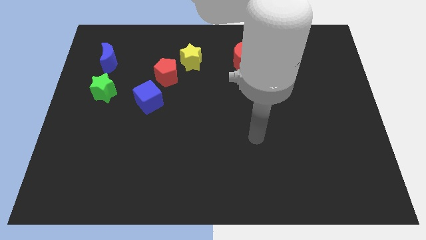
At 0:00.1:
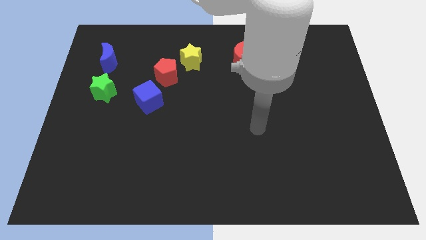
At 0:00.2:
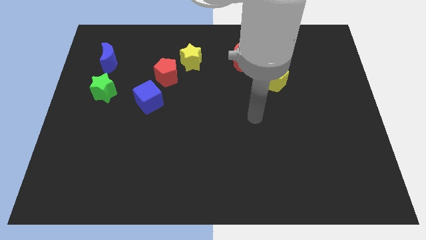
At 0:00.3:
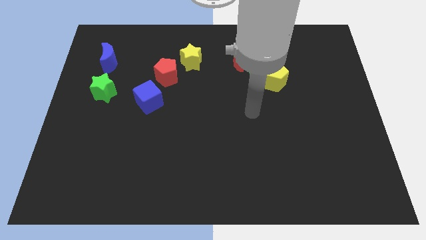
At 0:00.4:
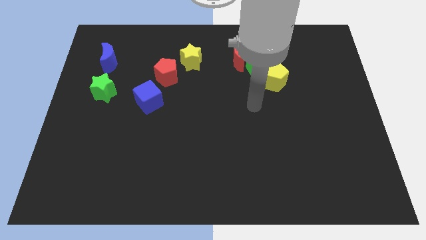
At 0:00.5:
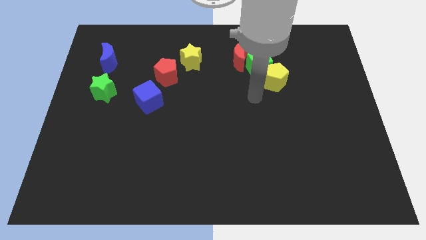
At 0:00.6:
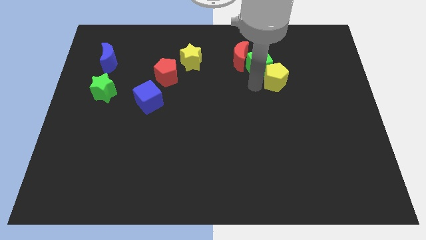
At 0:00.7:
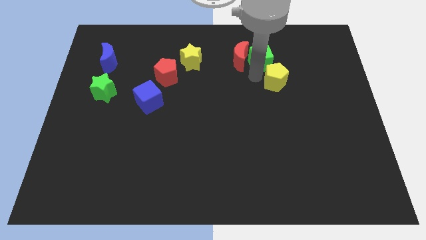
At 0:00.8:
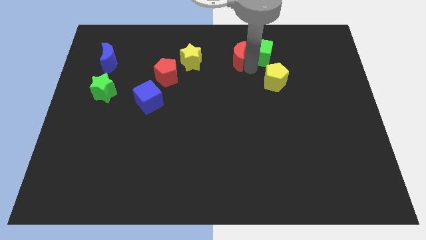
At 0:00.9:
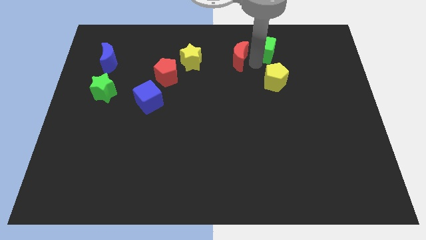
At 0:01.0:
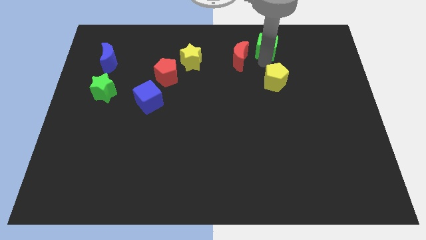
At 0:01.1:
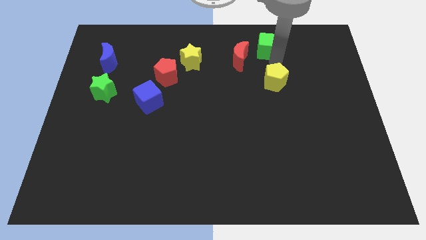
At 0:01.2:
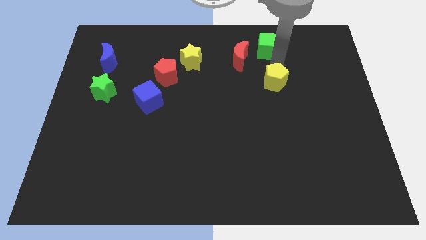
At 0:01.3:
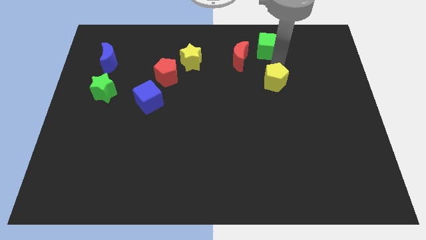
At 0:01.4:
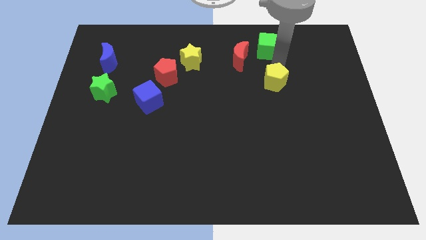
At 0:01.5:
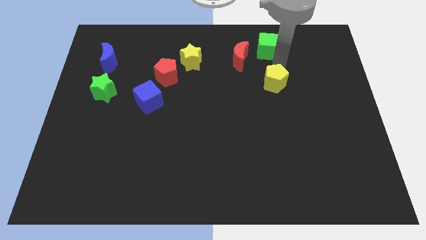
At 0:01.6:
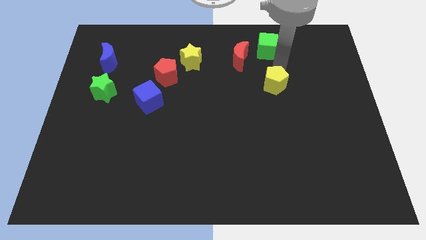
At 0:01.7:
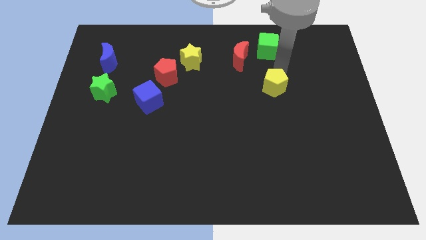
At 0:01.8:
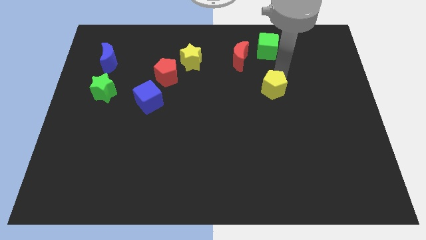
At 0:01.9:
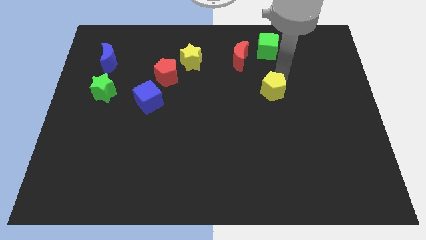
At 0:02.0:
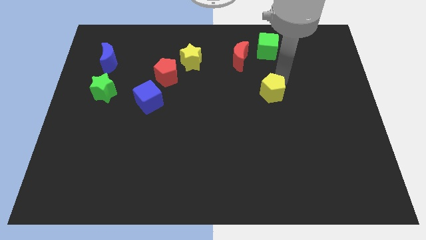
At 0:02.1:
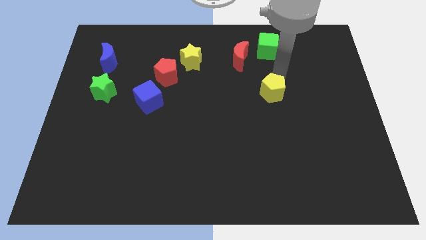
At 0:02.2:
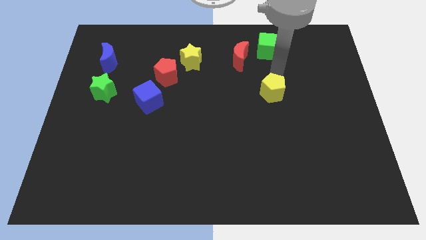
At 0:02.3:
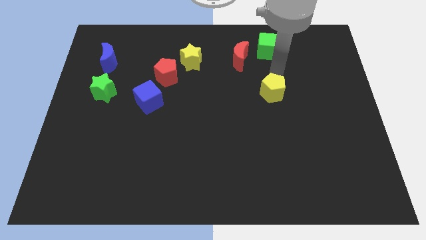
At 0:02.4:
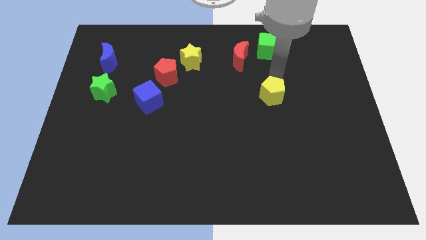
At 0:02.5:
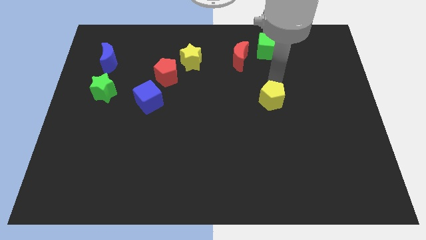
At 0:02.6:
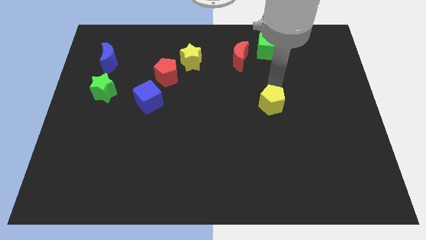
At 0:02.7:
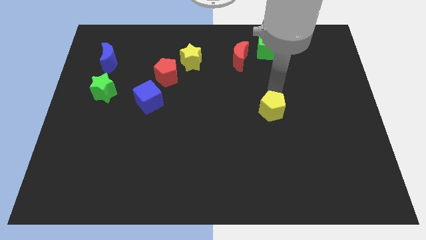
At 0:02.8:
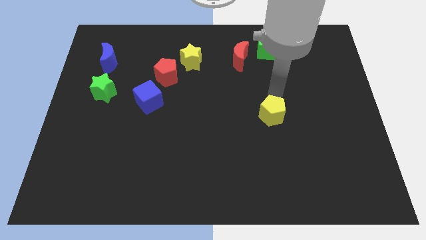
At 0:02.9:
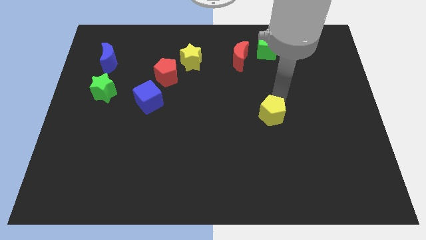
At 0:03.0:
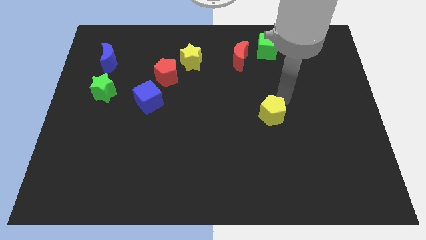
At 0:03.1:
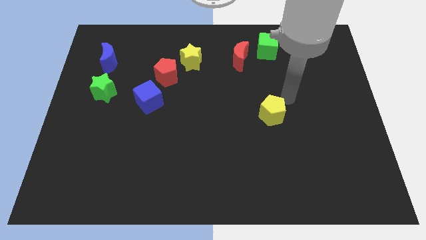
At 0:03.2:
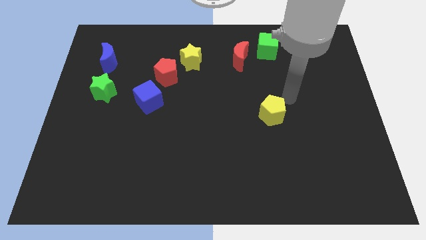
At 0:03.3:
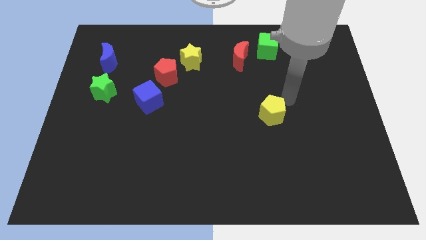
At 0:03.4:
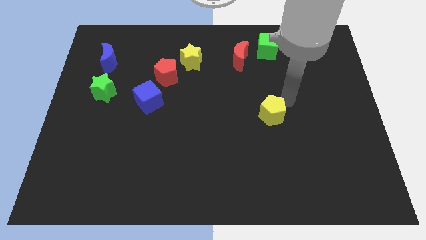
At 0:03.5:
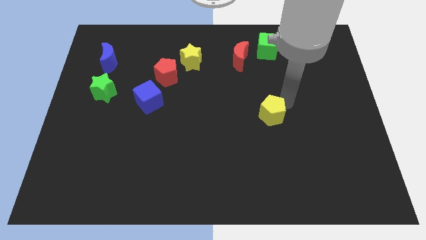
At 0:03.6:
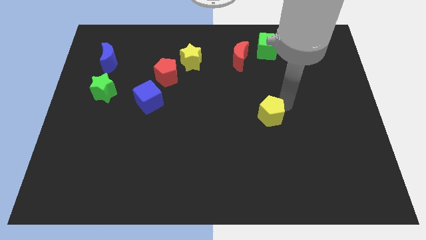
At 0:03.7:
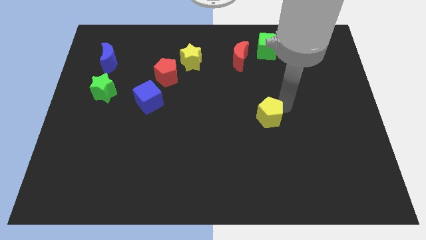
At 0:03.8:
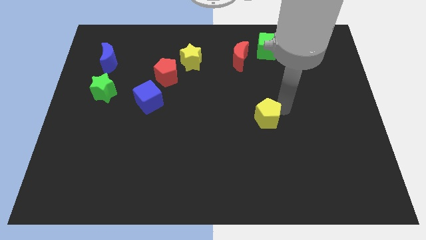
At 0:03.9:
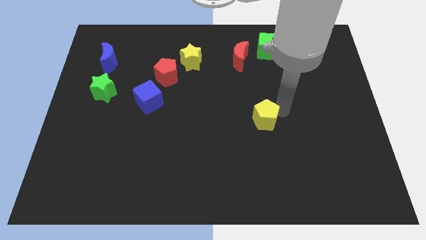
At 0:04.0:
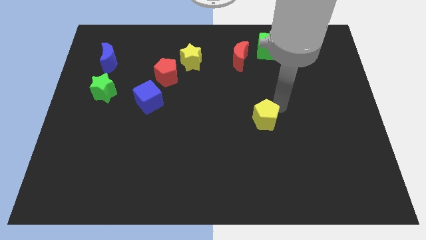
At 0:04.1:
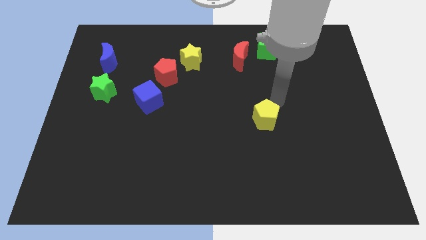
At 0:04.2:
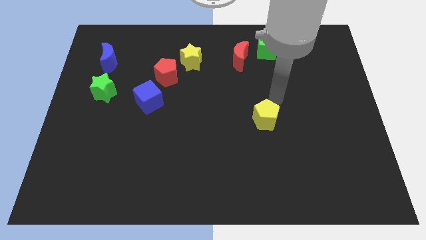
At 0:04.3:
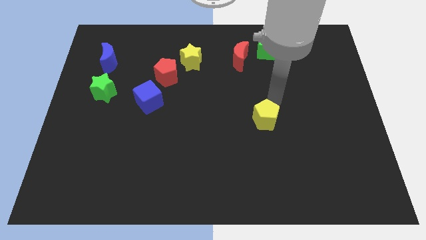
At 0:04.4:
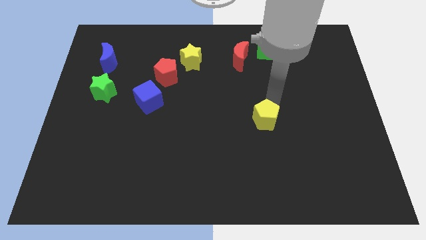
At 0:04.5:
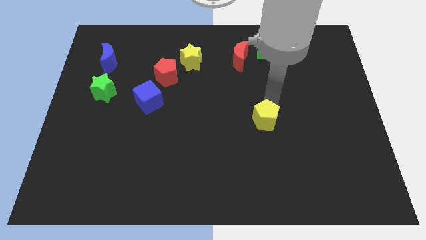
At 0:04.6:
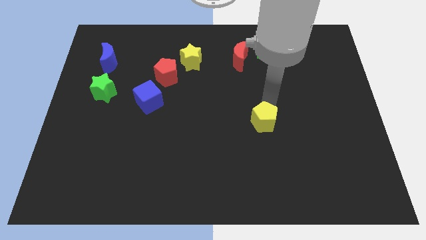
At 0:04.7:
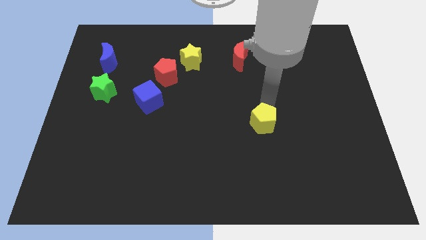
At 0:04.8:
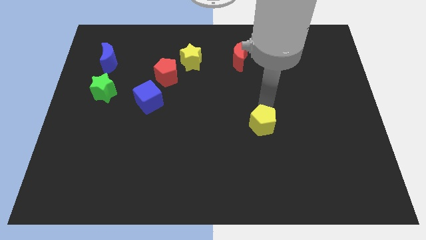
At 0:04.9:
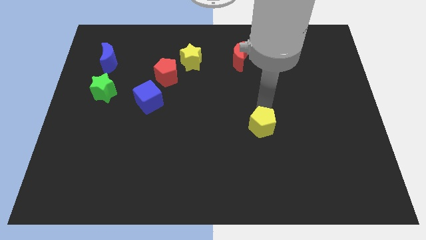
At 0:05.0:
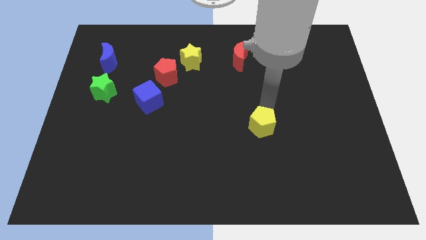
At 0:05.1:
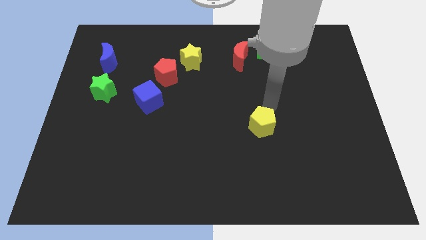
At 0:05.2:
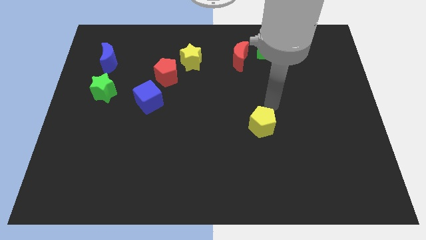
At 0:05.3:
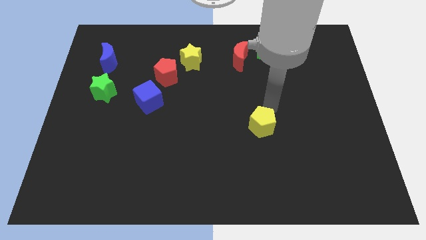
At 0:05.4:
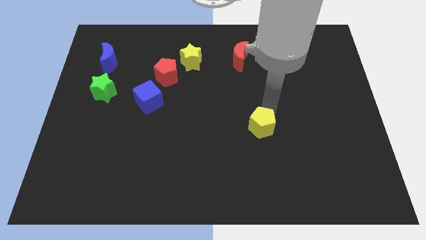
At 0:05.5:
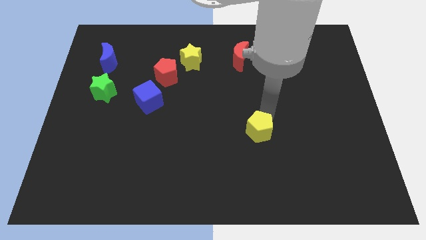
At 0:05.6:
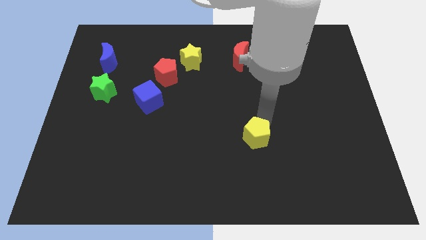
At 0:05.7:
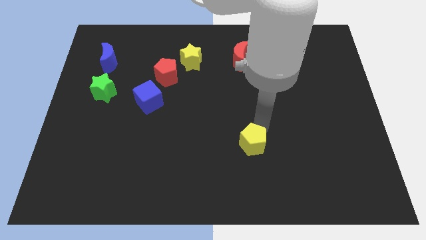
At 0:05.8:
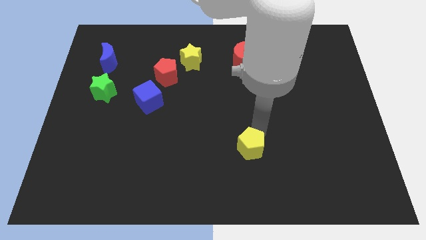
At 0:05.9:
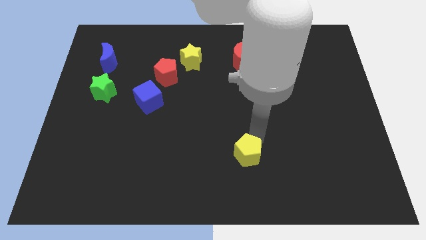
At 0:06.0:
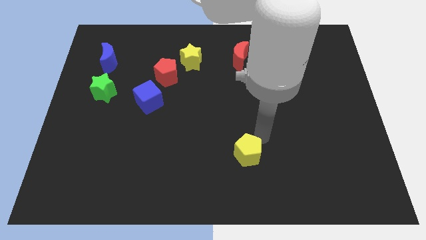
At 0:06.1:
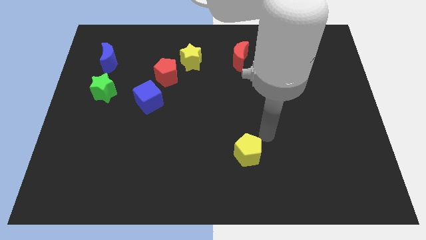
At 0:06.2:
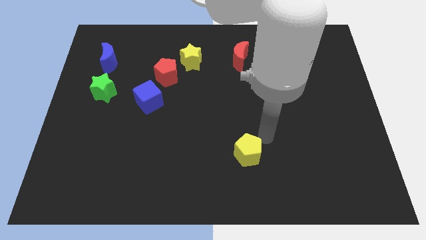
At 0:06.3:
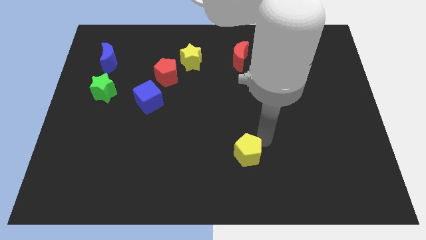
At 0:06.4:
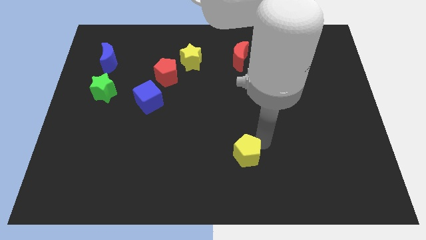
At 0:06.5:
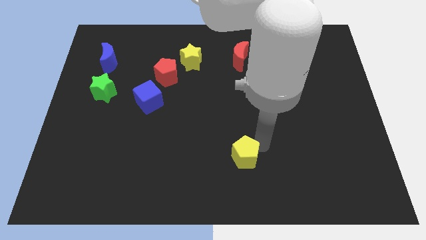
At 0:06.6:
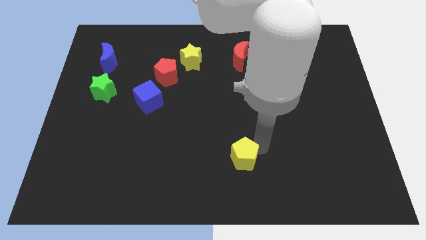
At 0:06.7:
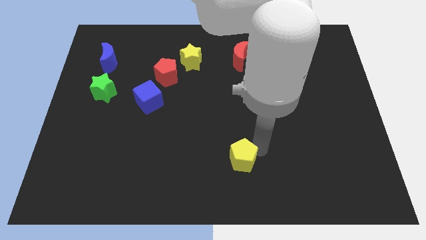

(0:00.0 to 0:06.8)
put the yellow pentagon to the bottom side

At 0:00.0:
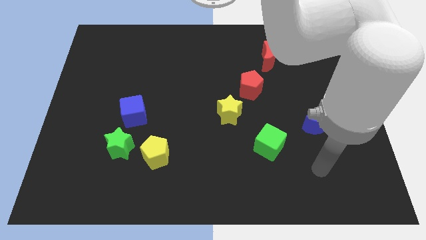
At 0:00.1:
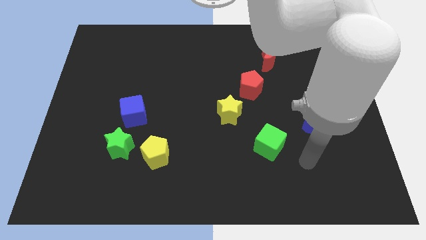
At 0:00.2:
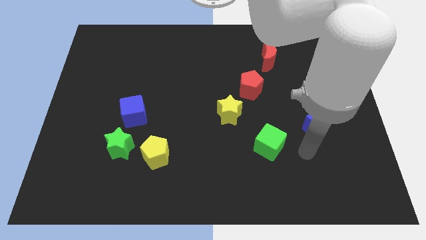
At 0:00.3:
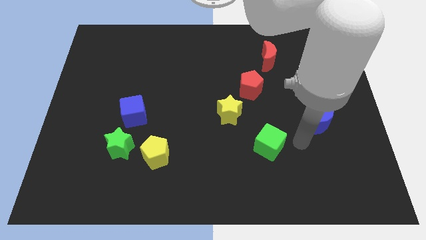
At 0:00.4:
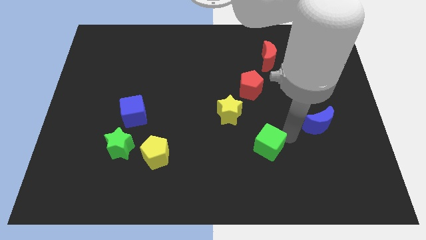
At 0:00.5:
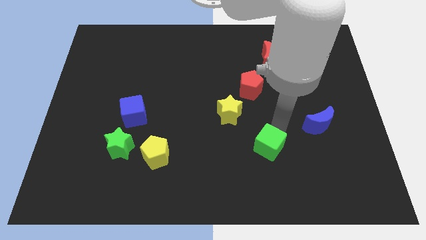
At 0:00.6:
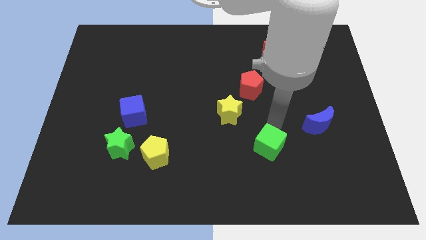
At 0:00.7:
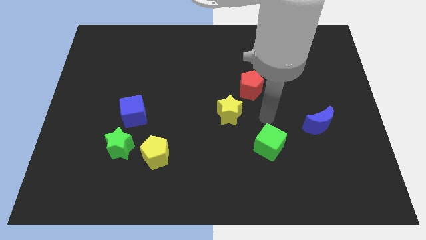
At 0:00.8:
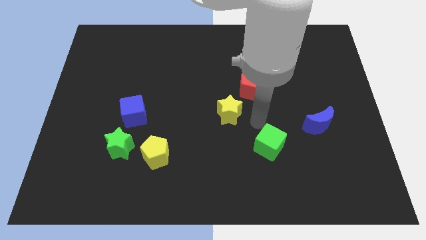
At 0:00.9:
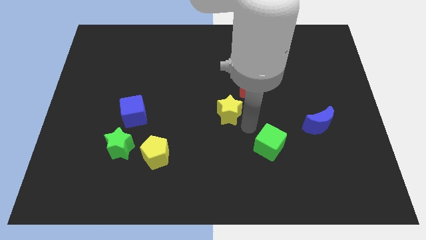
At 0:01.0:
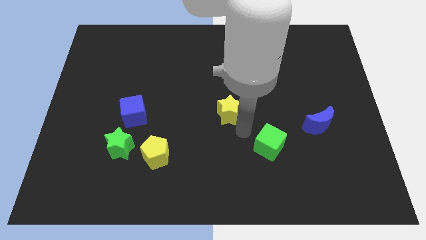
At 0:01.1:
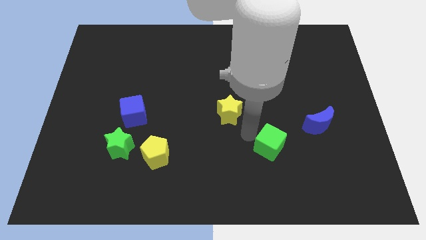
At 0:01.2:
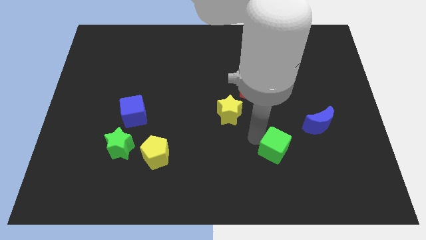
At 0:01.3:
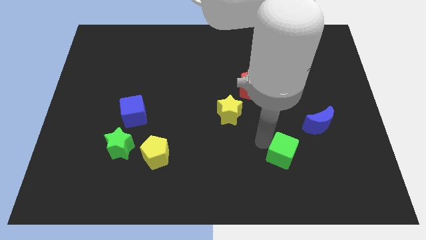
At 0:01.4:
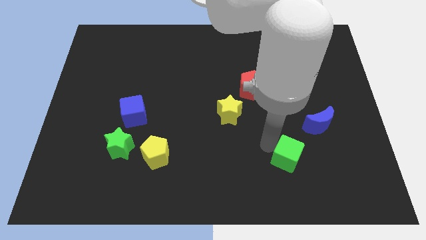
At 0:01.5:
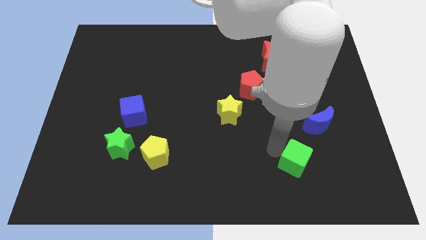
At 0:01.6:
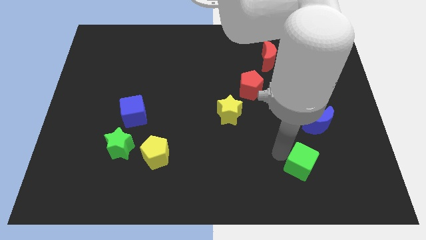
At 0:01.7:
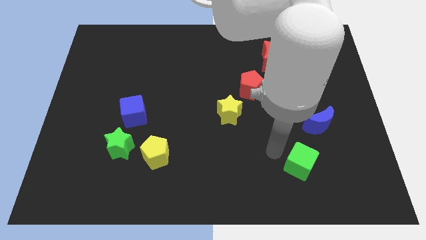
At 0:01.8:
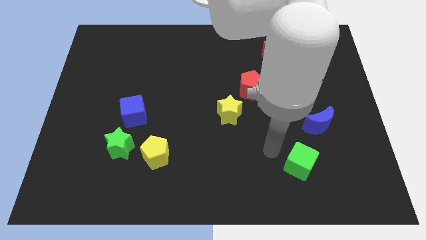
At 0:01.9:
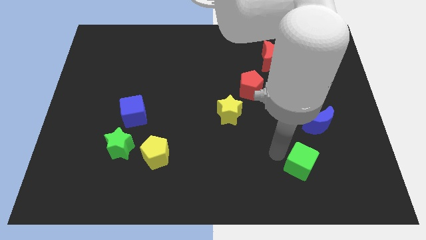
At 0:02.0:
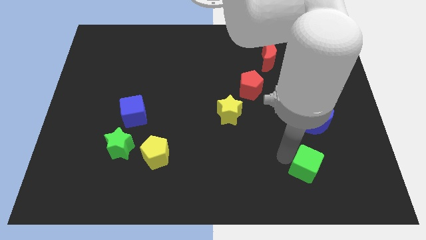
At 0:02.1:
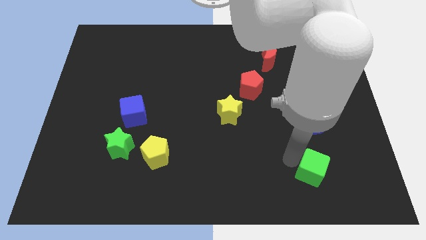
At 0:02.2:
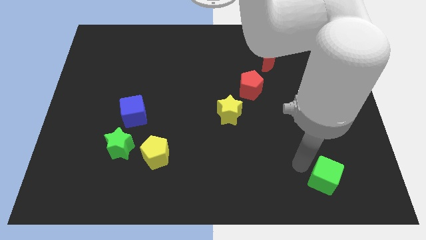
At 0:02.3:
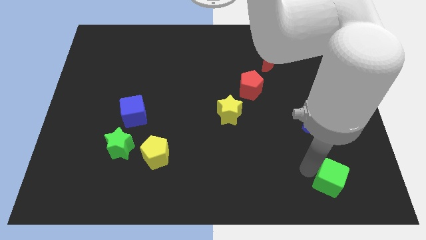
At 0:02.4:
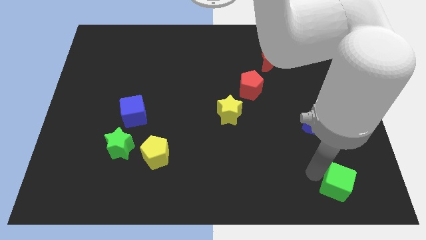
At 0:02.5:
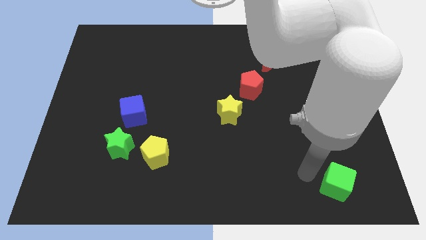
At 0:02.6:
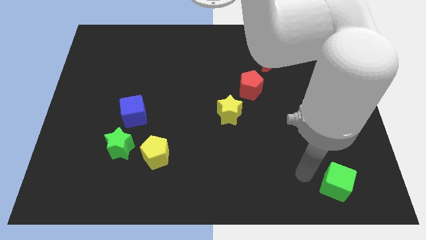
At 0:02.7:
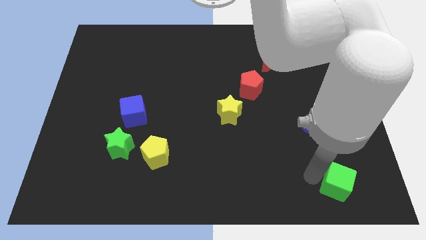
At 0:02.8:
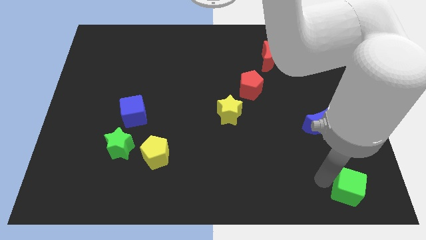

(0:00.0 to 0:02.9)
slide the green cube to the bottom right
